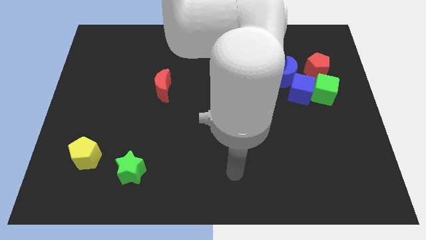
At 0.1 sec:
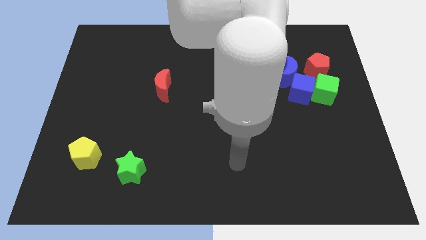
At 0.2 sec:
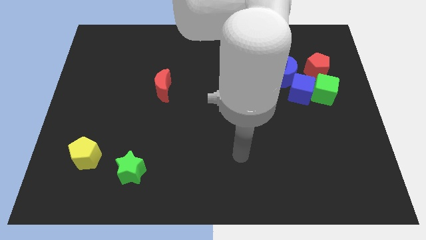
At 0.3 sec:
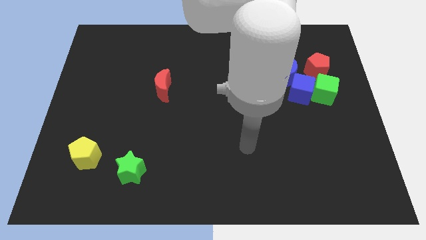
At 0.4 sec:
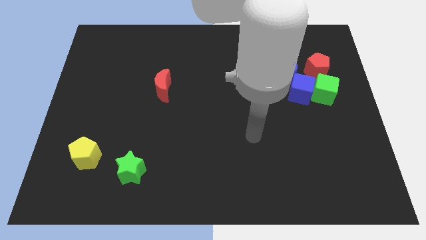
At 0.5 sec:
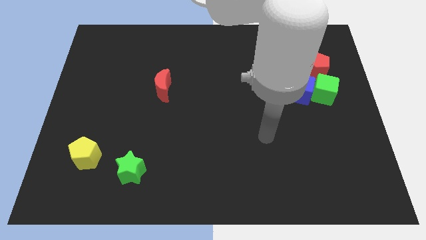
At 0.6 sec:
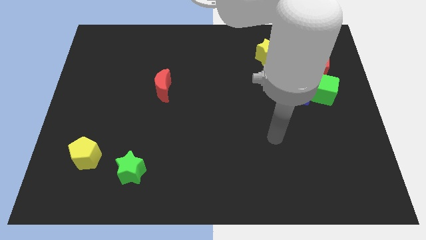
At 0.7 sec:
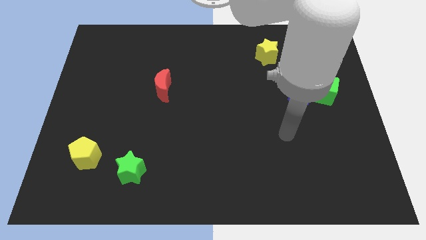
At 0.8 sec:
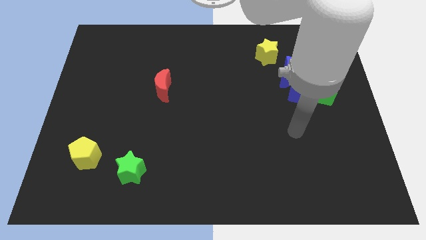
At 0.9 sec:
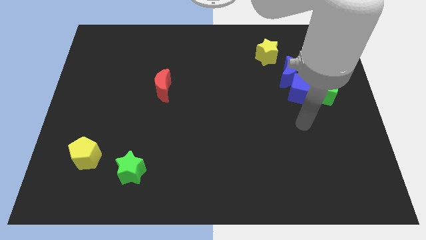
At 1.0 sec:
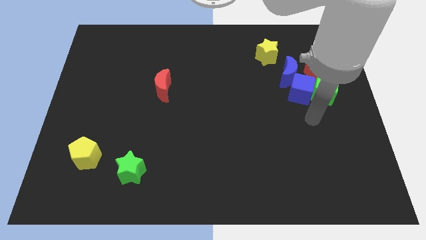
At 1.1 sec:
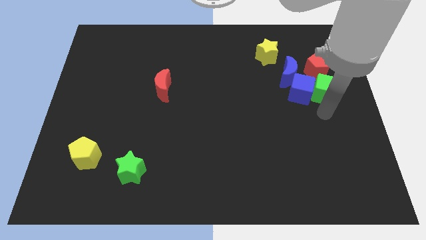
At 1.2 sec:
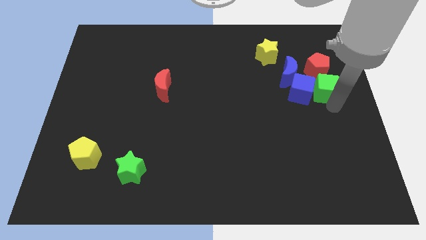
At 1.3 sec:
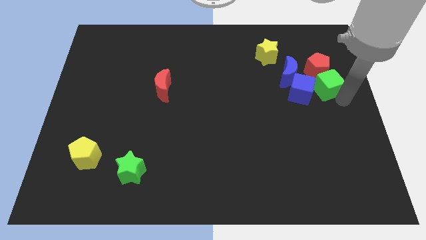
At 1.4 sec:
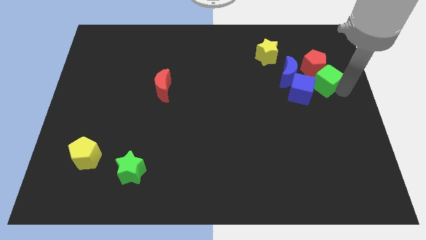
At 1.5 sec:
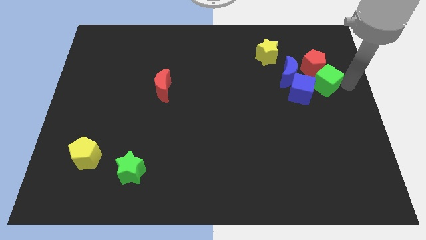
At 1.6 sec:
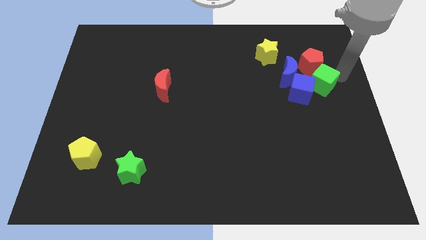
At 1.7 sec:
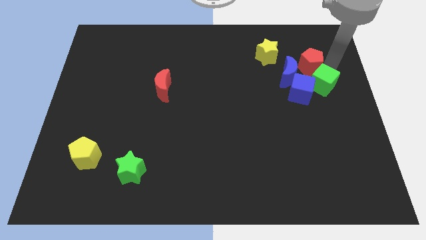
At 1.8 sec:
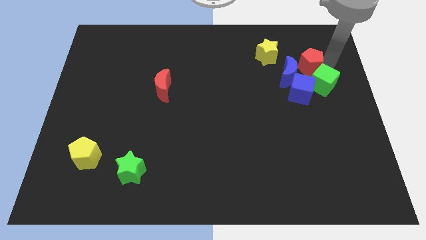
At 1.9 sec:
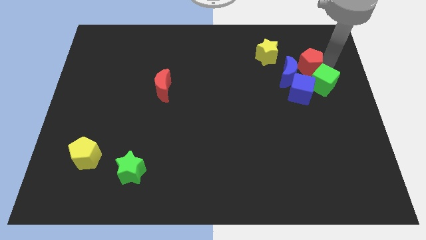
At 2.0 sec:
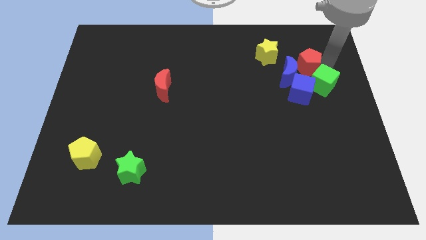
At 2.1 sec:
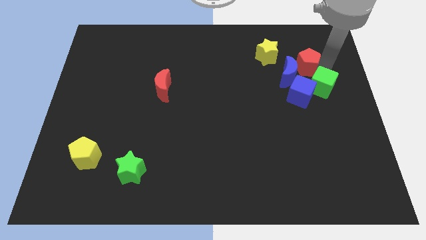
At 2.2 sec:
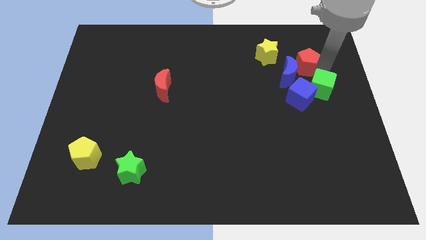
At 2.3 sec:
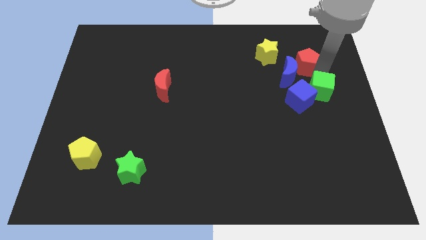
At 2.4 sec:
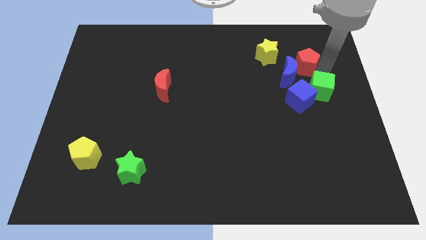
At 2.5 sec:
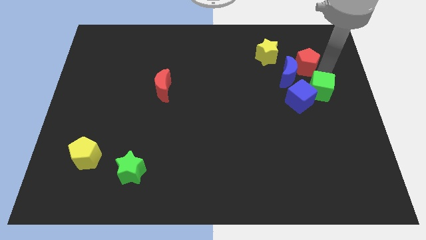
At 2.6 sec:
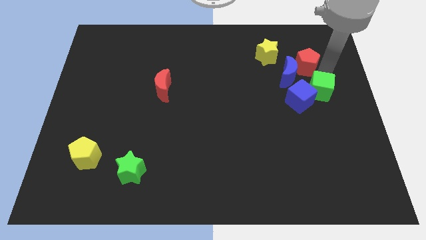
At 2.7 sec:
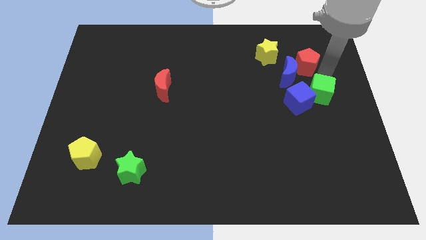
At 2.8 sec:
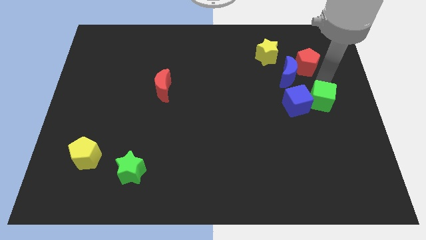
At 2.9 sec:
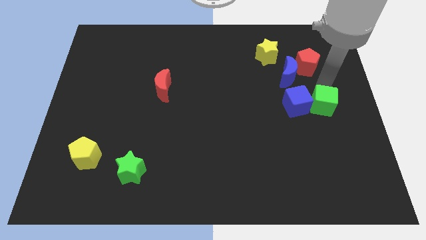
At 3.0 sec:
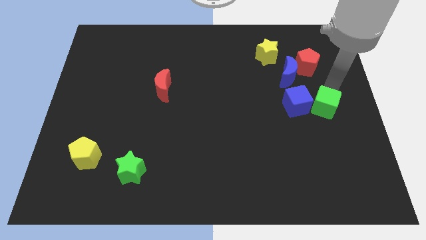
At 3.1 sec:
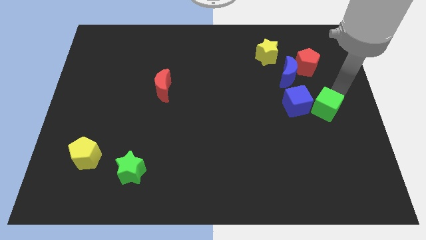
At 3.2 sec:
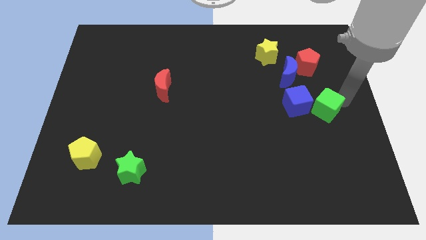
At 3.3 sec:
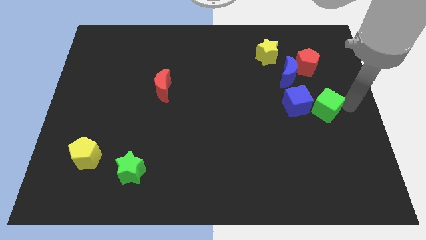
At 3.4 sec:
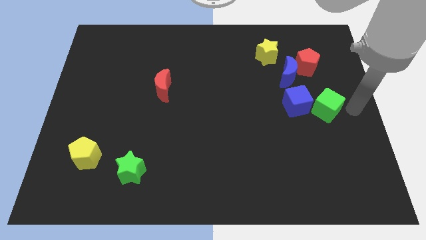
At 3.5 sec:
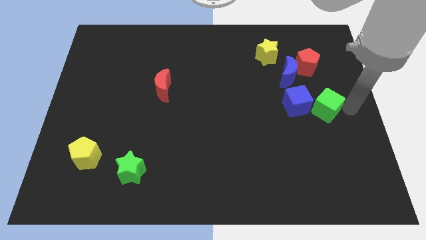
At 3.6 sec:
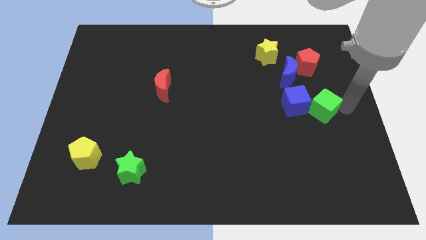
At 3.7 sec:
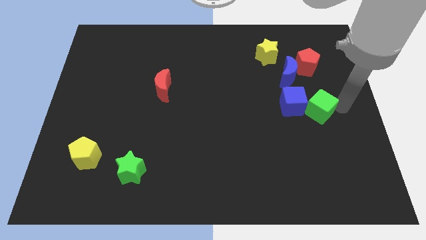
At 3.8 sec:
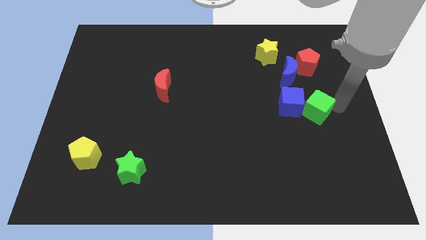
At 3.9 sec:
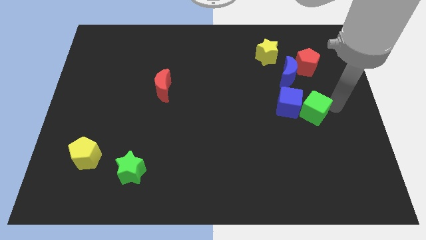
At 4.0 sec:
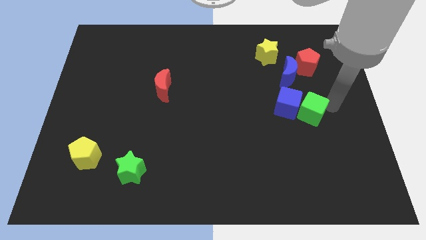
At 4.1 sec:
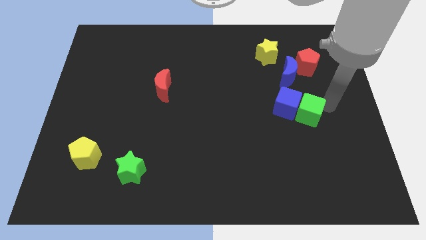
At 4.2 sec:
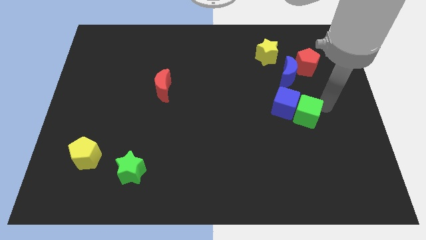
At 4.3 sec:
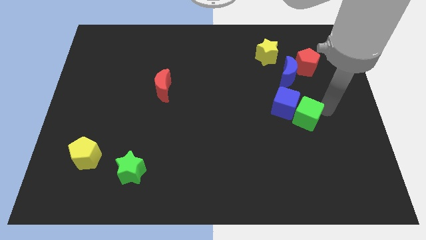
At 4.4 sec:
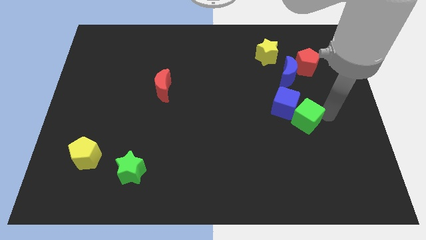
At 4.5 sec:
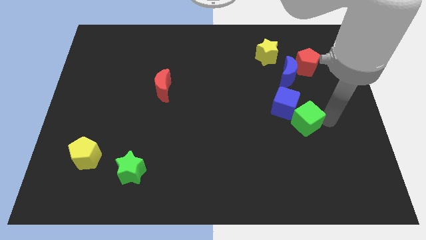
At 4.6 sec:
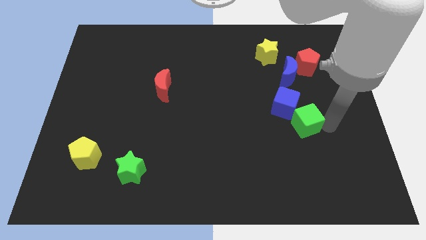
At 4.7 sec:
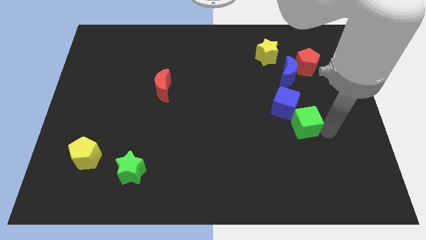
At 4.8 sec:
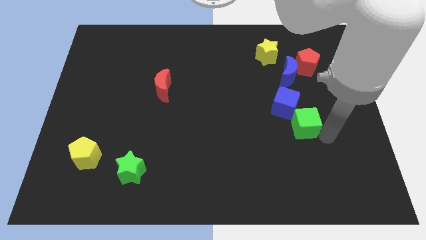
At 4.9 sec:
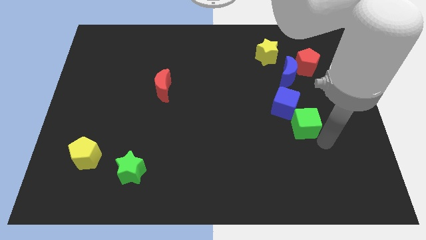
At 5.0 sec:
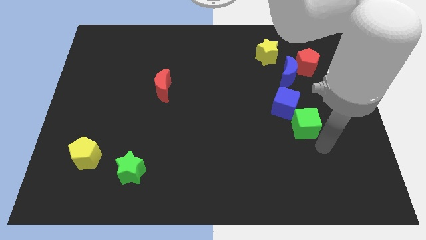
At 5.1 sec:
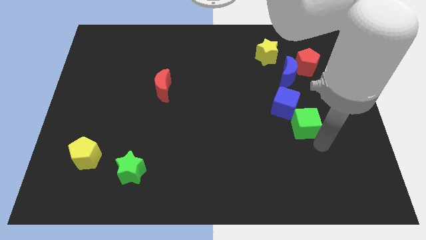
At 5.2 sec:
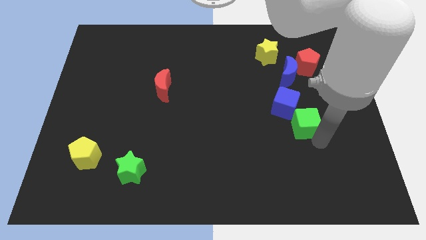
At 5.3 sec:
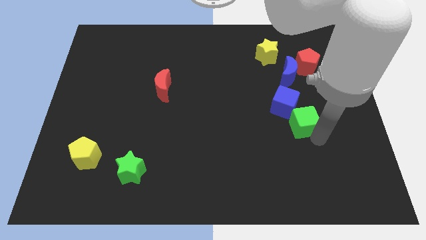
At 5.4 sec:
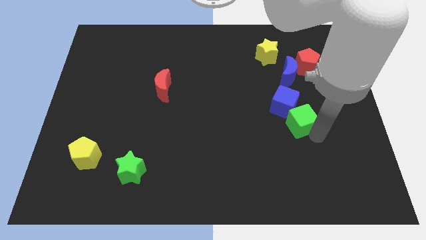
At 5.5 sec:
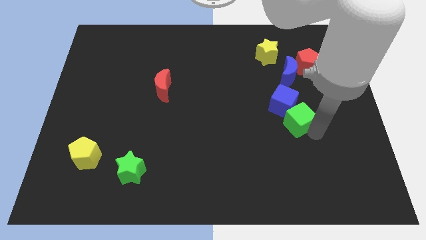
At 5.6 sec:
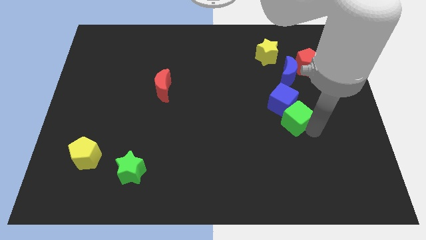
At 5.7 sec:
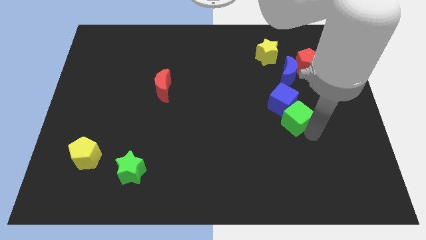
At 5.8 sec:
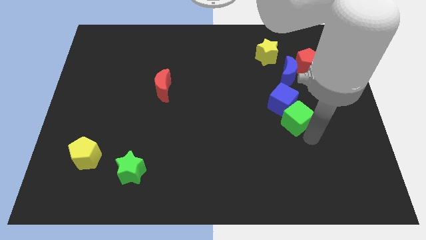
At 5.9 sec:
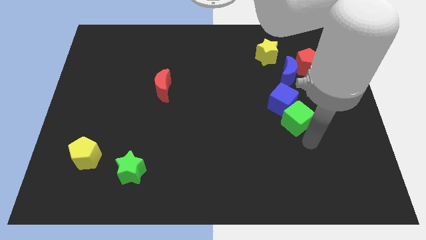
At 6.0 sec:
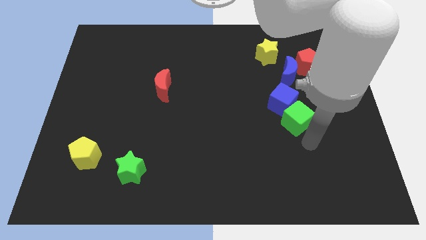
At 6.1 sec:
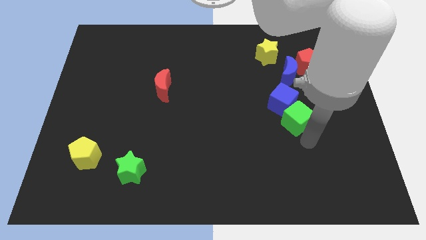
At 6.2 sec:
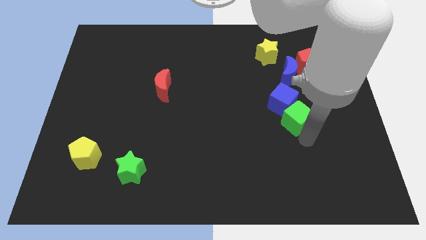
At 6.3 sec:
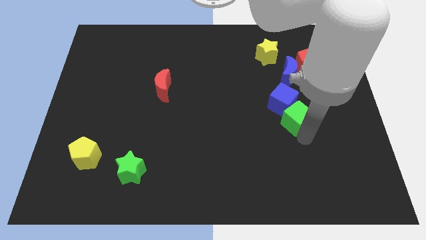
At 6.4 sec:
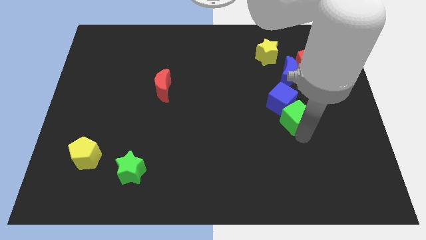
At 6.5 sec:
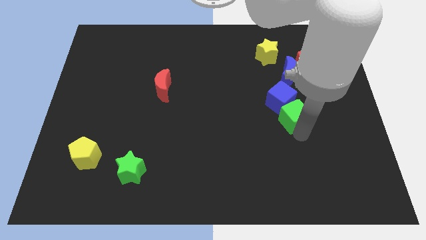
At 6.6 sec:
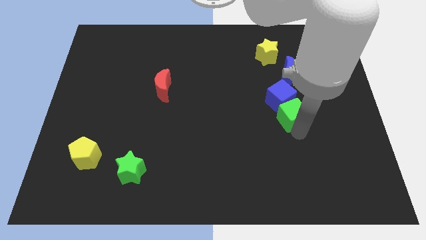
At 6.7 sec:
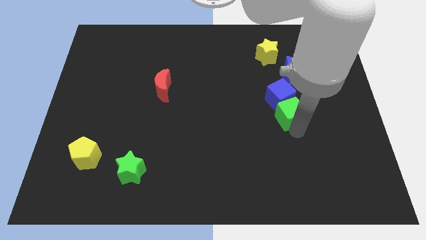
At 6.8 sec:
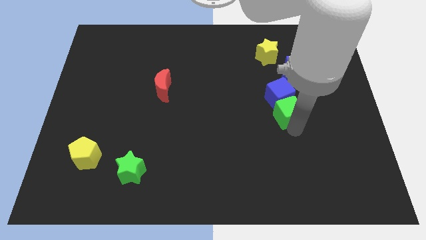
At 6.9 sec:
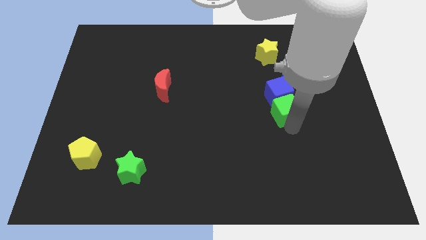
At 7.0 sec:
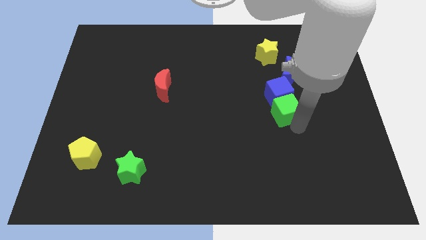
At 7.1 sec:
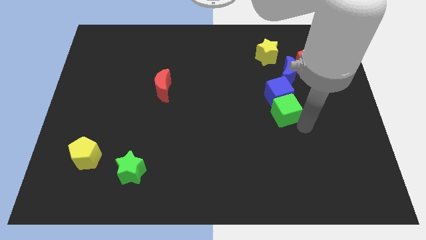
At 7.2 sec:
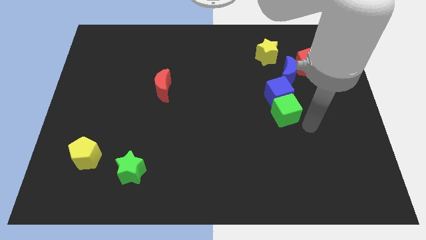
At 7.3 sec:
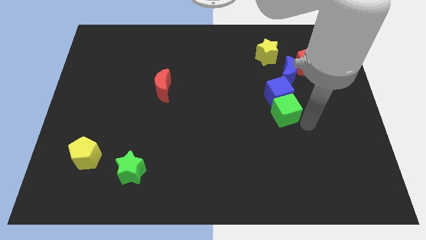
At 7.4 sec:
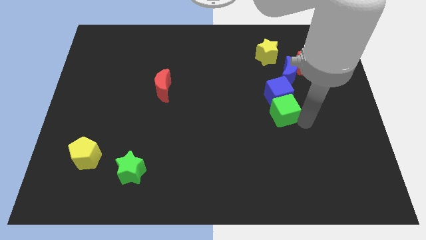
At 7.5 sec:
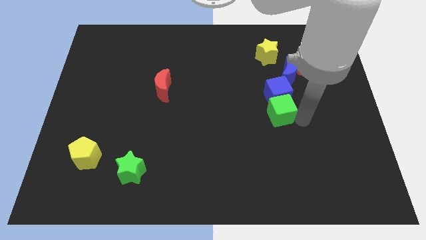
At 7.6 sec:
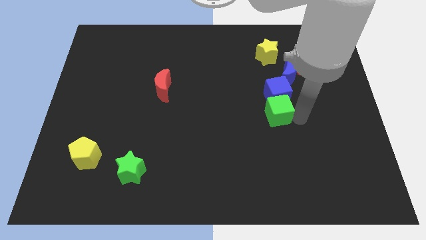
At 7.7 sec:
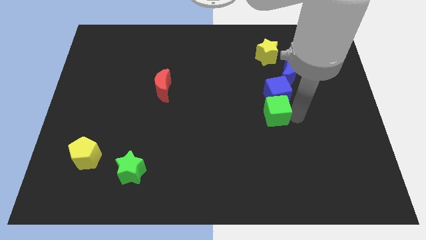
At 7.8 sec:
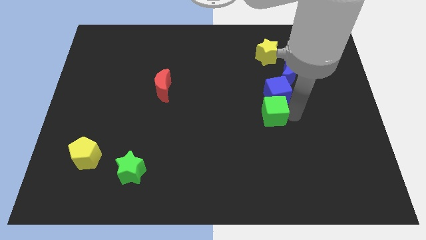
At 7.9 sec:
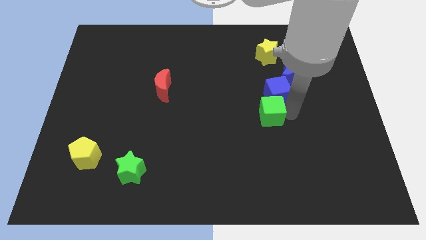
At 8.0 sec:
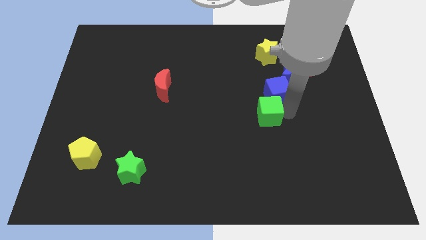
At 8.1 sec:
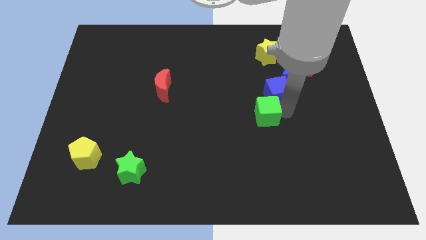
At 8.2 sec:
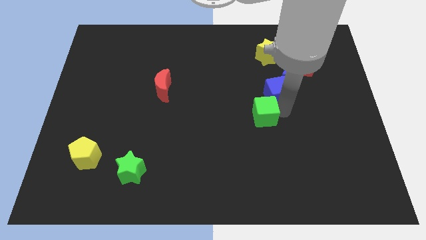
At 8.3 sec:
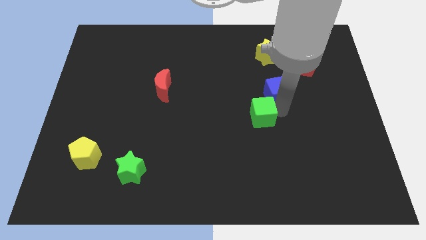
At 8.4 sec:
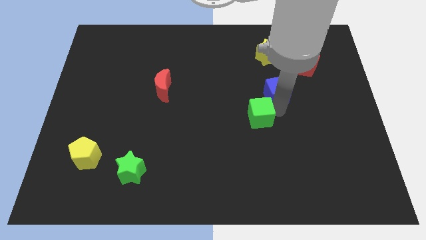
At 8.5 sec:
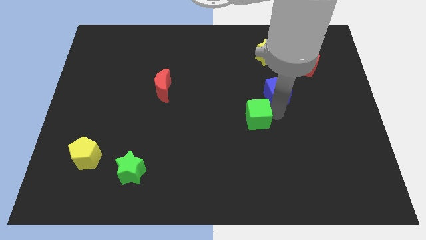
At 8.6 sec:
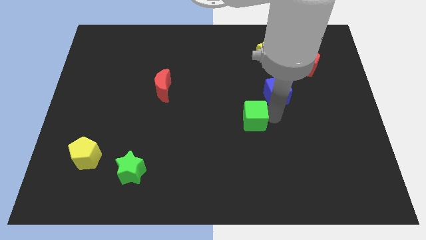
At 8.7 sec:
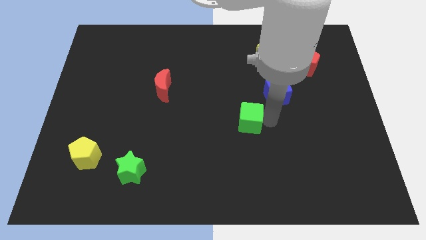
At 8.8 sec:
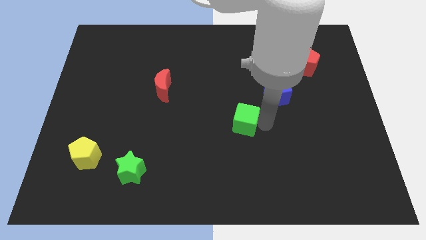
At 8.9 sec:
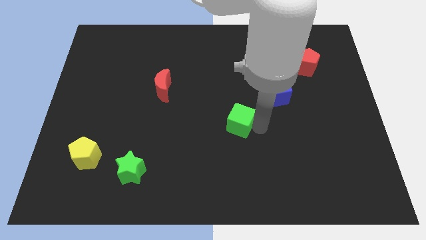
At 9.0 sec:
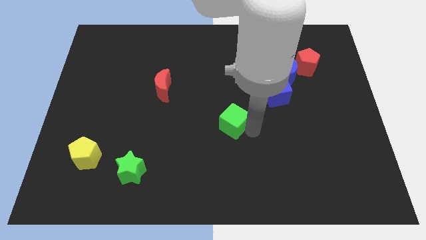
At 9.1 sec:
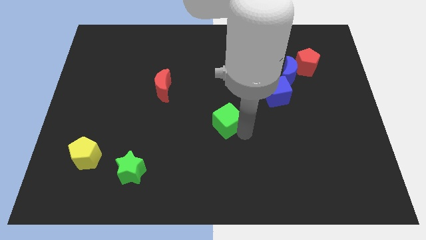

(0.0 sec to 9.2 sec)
slide the green cube left
